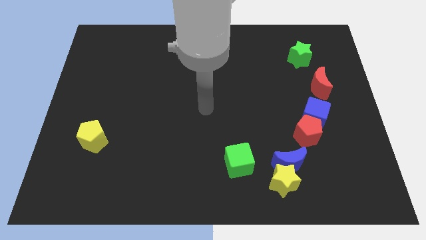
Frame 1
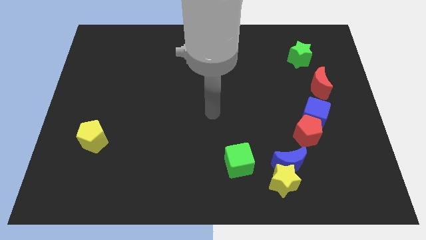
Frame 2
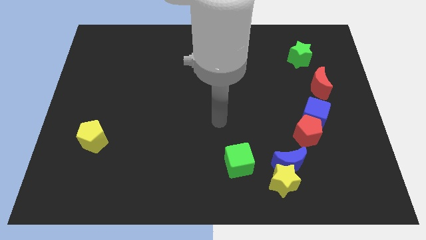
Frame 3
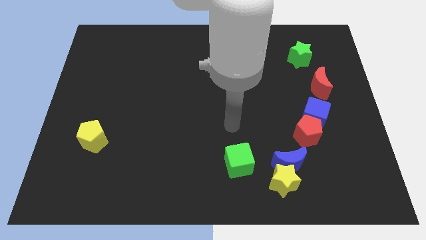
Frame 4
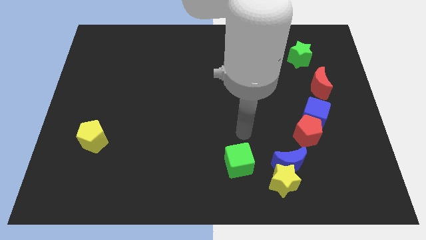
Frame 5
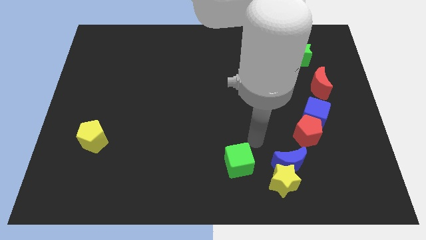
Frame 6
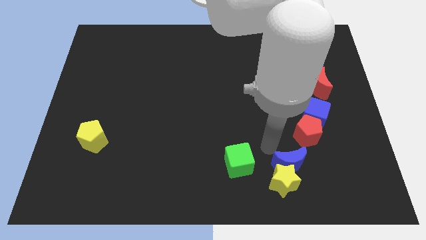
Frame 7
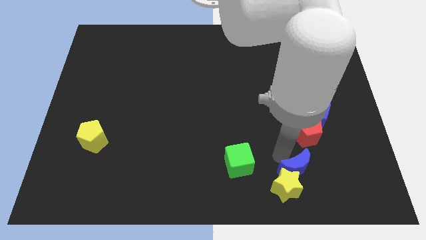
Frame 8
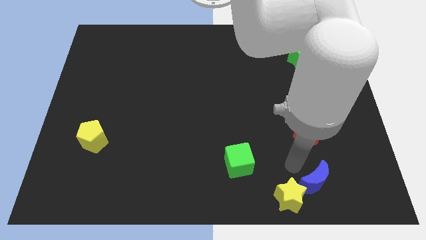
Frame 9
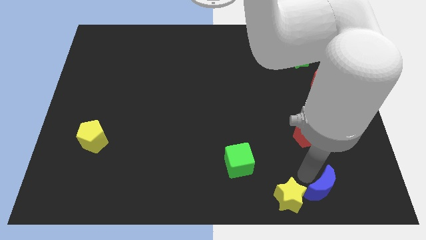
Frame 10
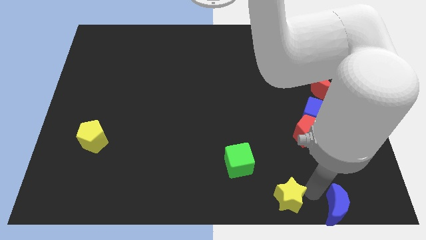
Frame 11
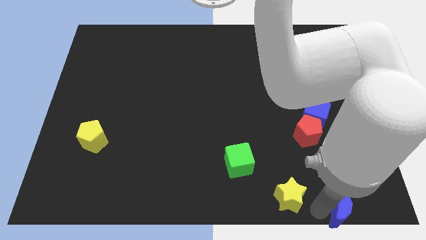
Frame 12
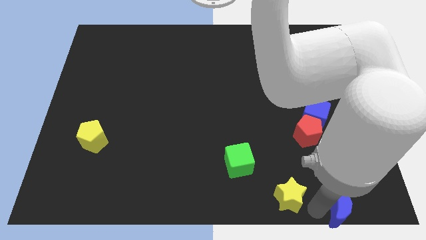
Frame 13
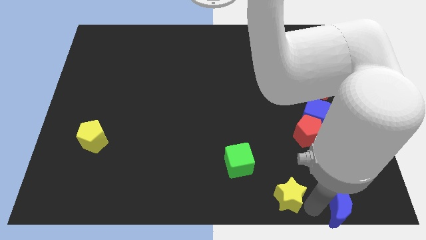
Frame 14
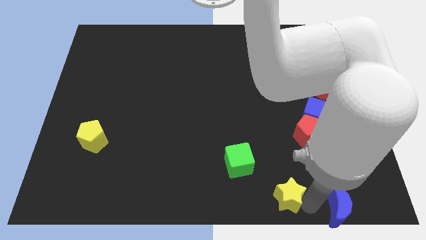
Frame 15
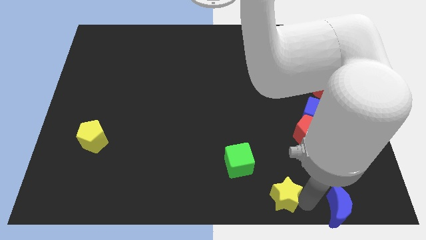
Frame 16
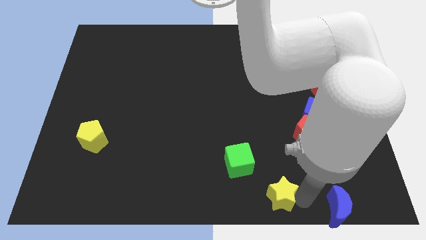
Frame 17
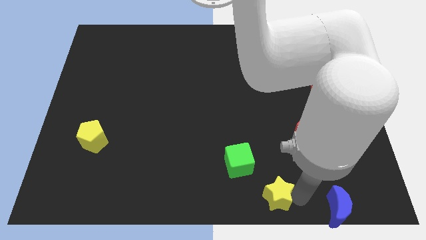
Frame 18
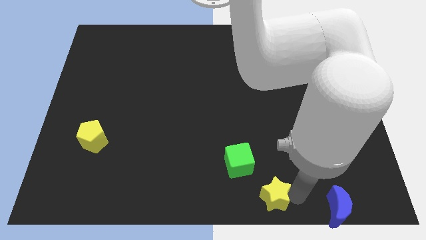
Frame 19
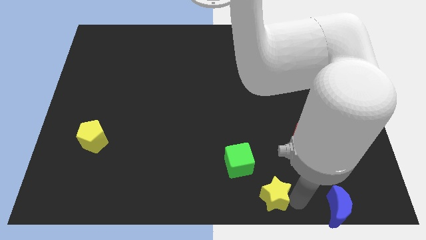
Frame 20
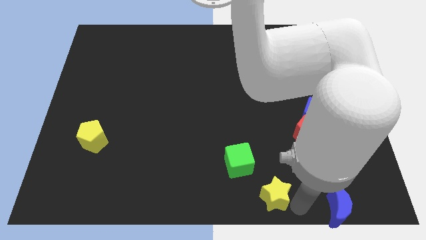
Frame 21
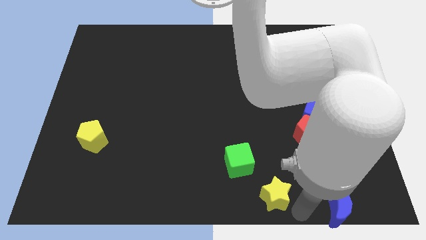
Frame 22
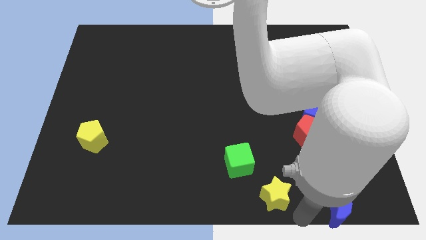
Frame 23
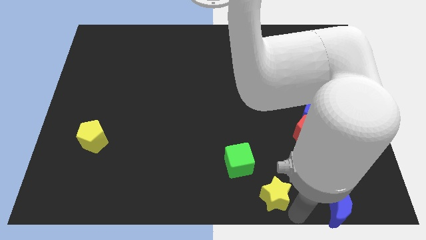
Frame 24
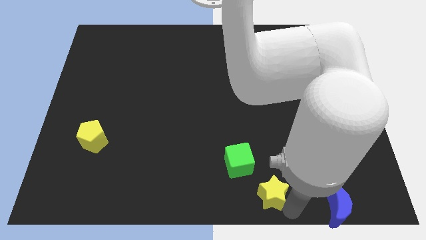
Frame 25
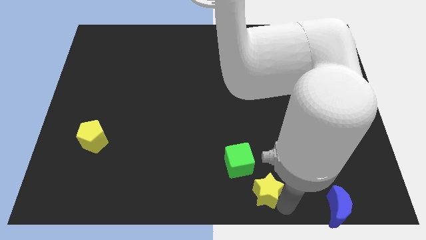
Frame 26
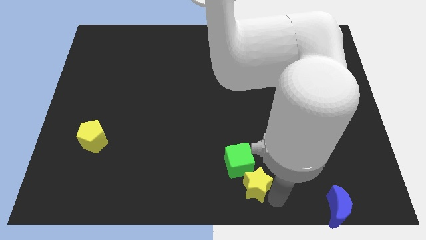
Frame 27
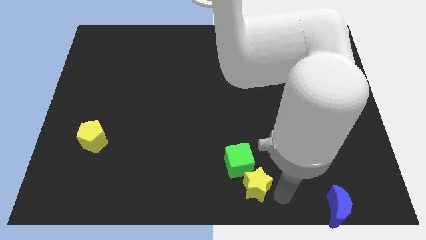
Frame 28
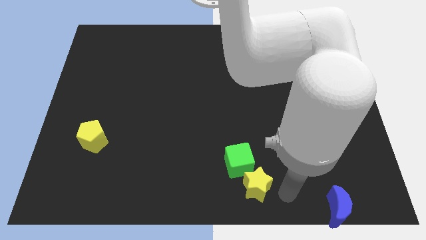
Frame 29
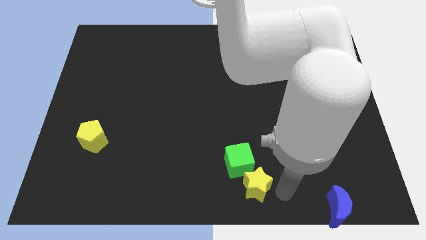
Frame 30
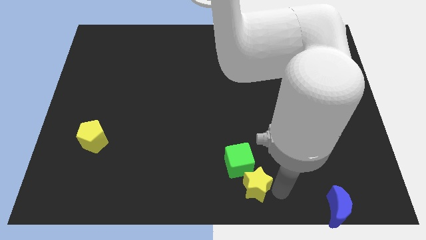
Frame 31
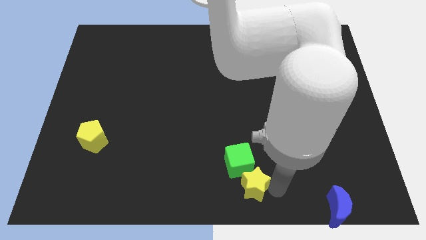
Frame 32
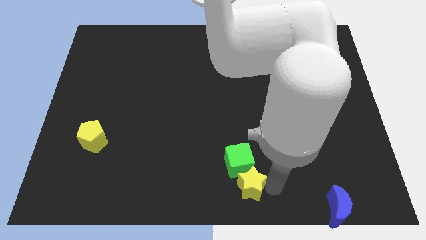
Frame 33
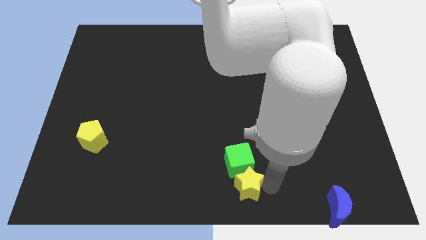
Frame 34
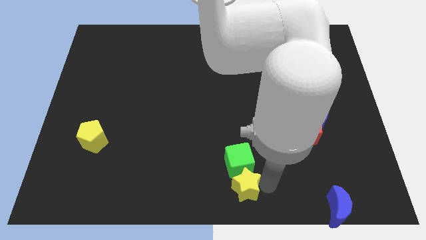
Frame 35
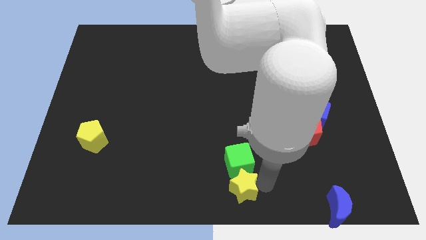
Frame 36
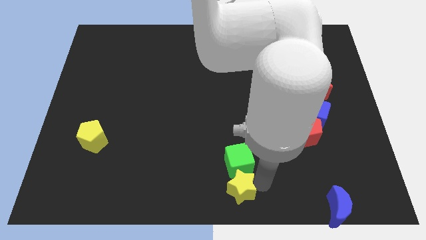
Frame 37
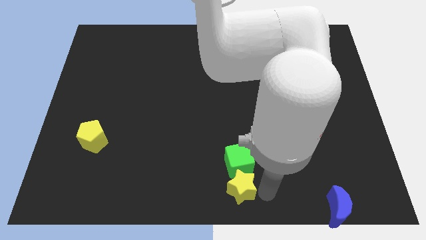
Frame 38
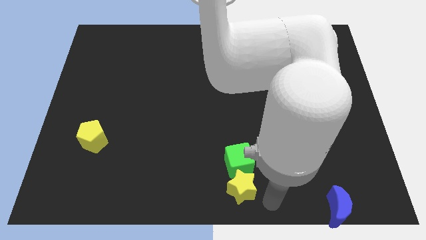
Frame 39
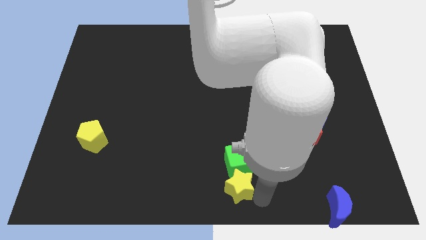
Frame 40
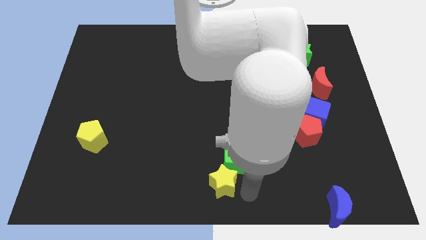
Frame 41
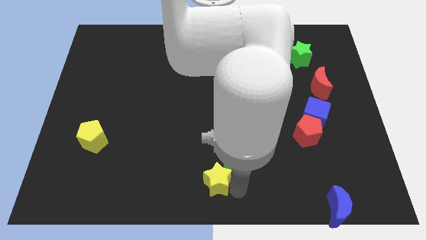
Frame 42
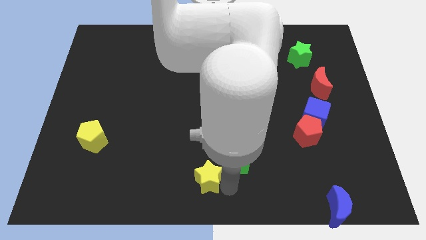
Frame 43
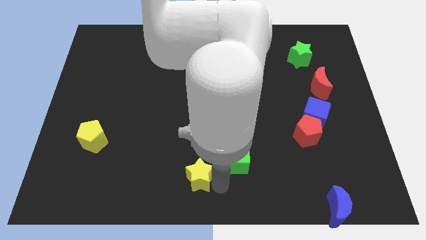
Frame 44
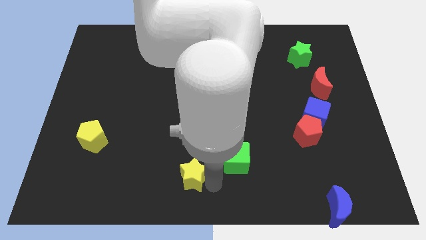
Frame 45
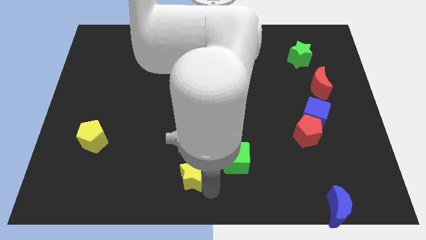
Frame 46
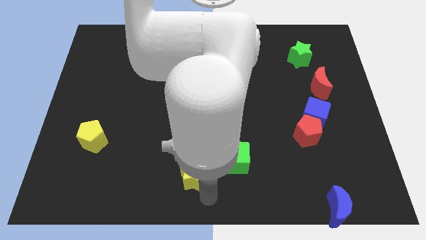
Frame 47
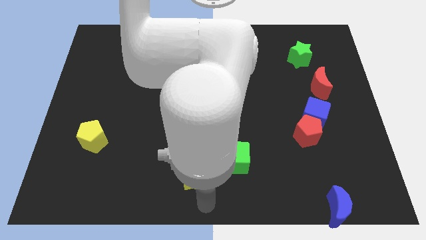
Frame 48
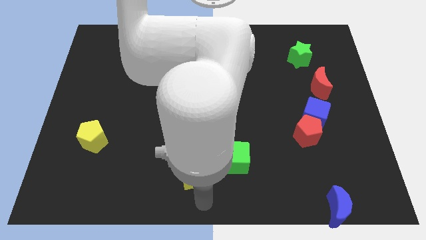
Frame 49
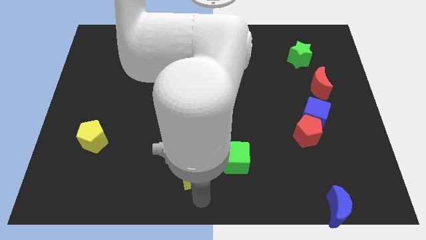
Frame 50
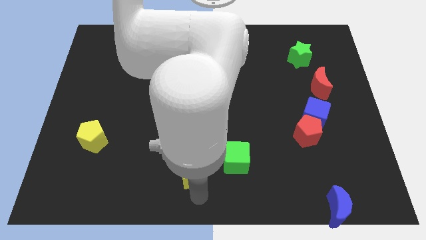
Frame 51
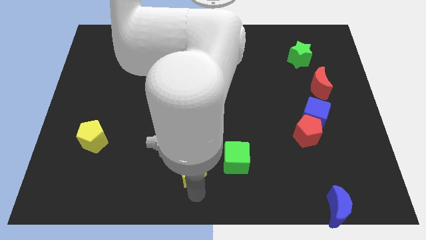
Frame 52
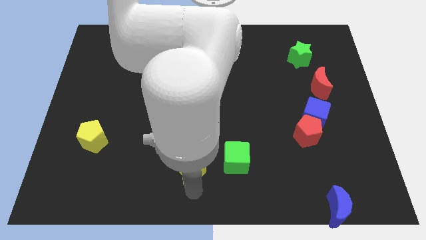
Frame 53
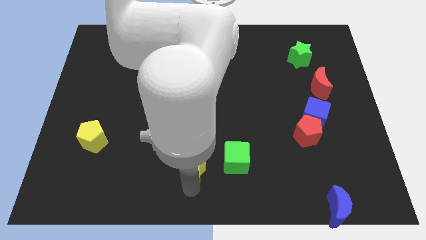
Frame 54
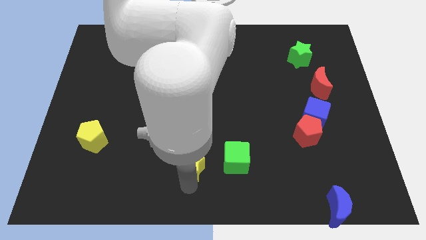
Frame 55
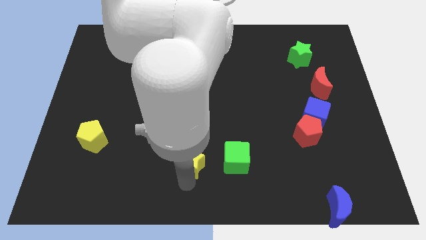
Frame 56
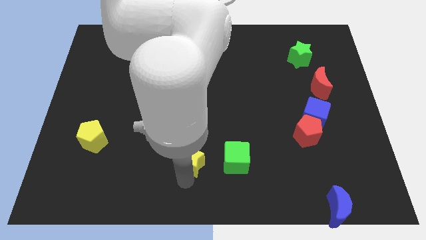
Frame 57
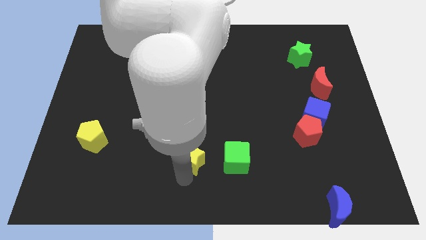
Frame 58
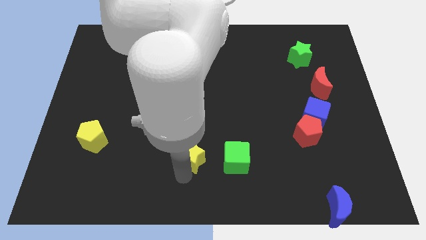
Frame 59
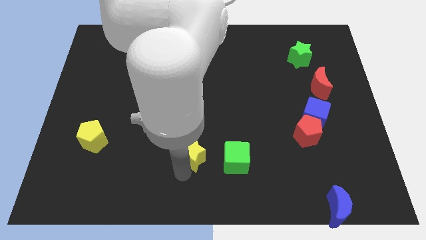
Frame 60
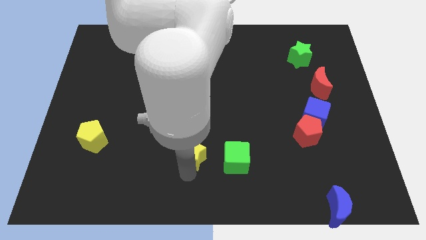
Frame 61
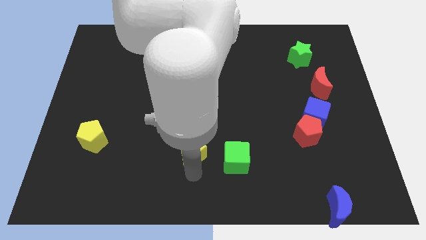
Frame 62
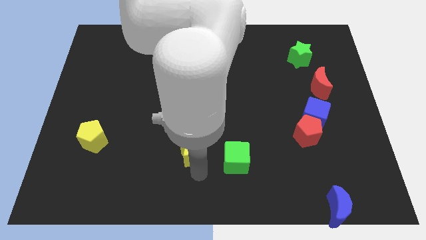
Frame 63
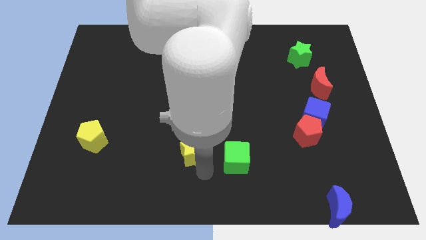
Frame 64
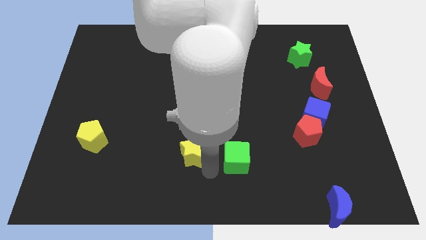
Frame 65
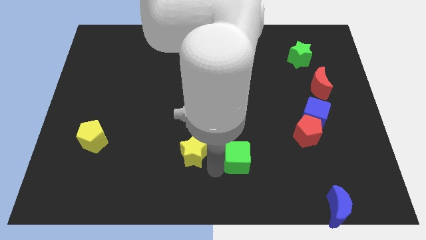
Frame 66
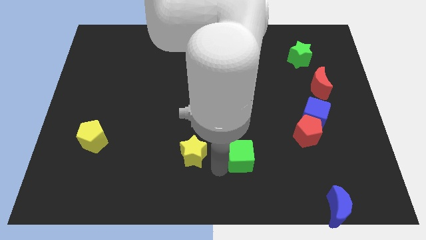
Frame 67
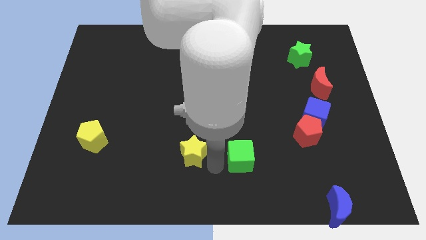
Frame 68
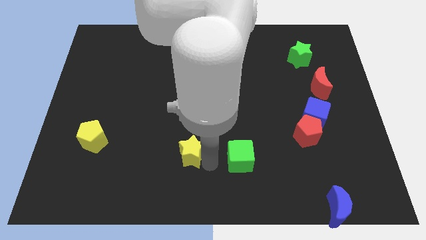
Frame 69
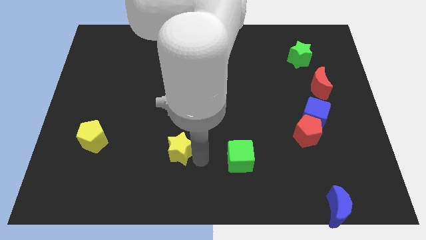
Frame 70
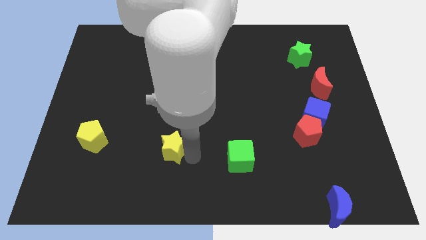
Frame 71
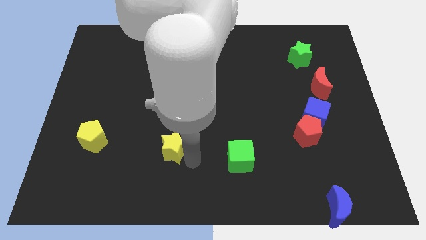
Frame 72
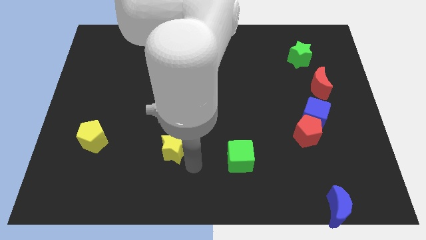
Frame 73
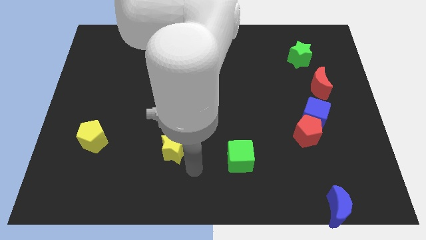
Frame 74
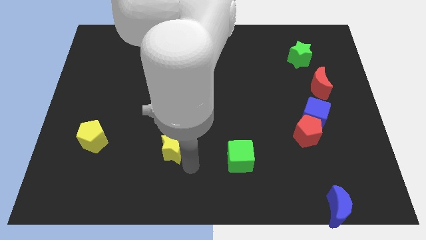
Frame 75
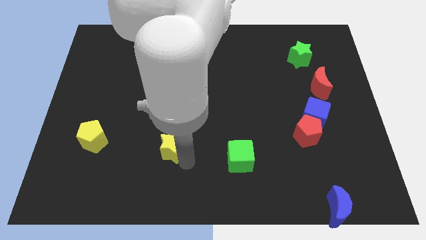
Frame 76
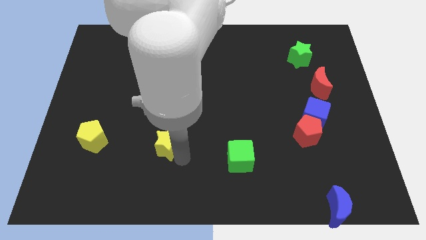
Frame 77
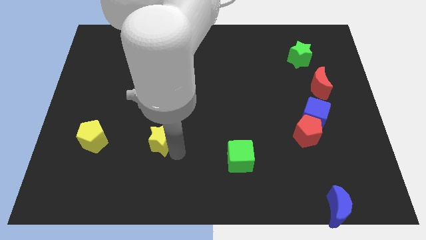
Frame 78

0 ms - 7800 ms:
put the yellow star right of the yellow pentagon
